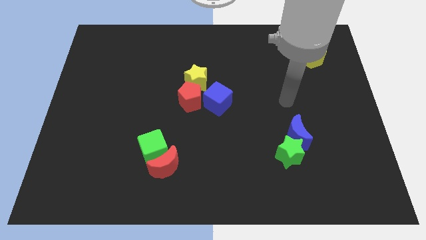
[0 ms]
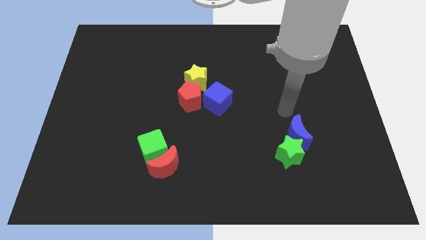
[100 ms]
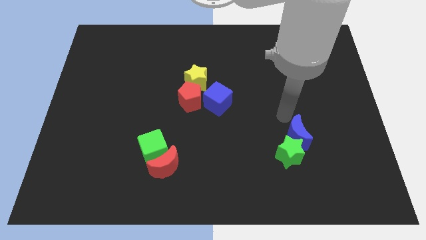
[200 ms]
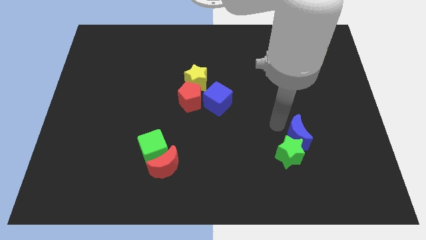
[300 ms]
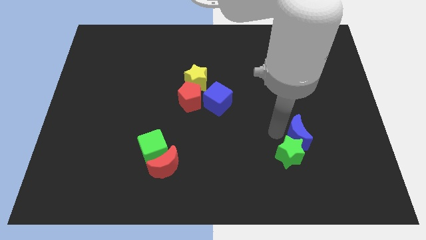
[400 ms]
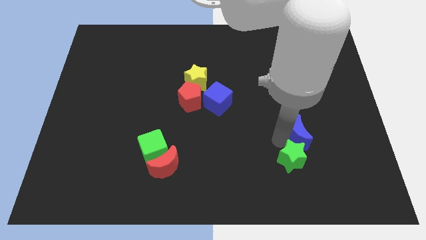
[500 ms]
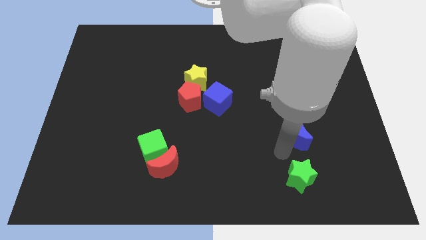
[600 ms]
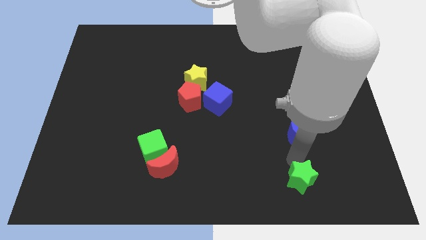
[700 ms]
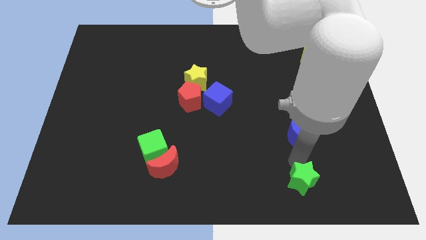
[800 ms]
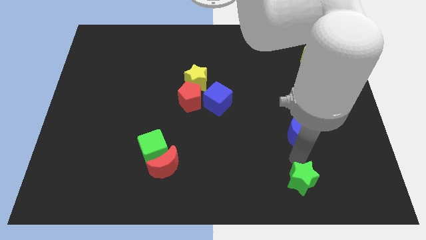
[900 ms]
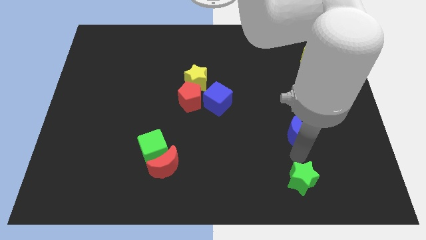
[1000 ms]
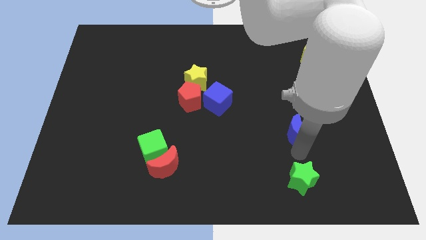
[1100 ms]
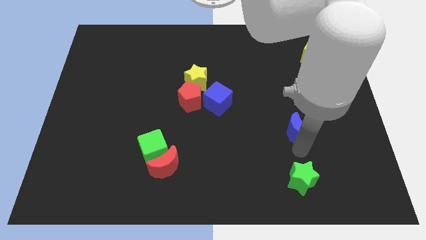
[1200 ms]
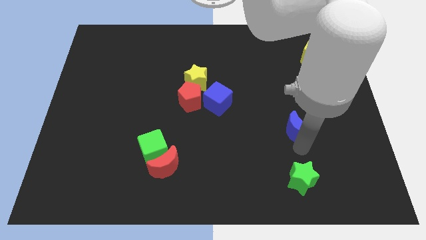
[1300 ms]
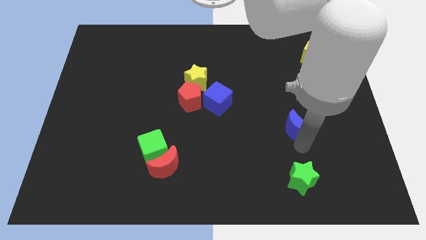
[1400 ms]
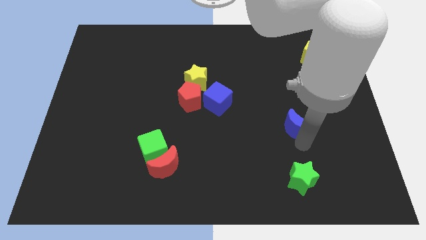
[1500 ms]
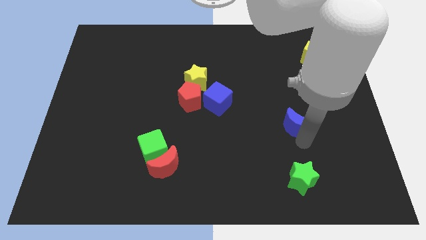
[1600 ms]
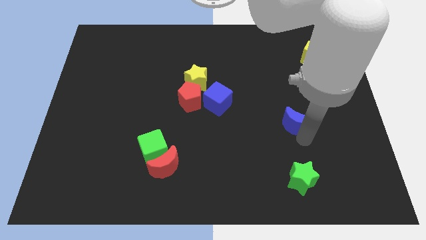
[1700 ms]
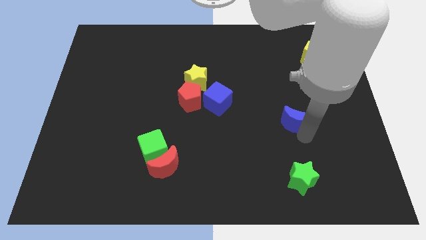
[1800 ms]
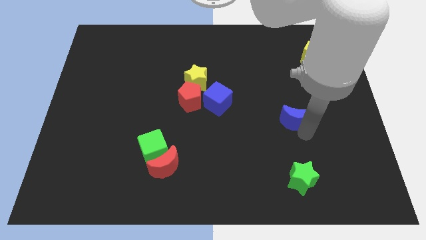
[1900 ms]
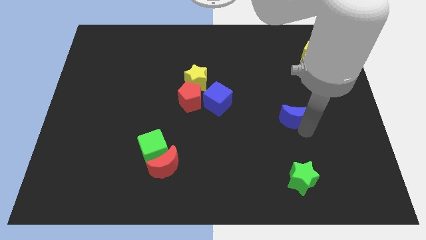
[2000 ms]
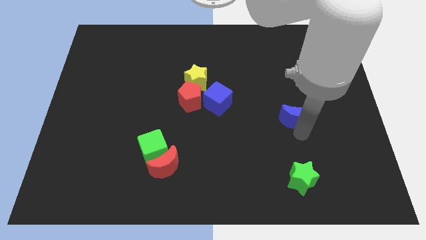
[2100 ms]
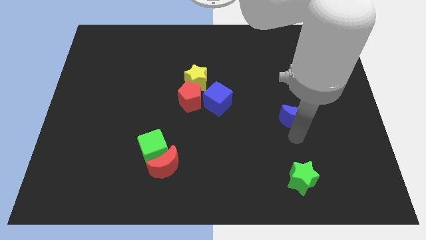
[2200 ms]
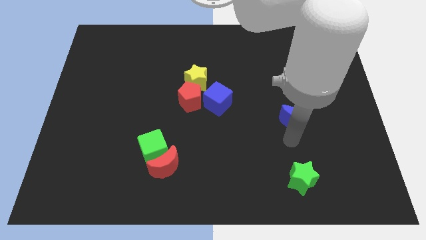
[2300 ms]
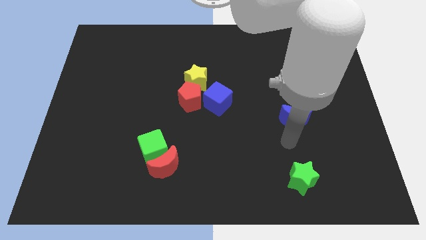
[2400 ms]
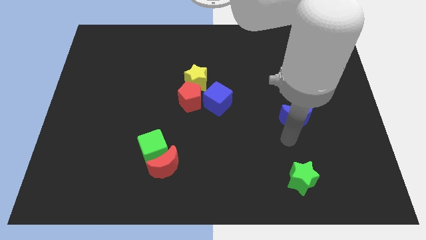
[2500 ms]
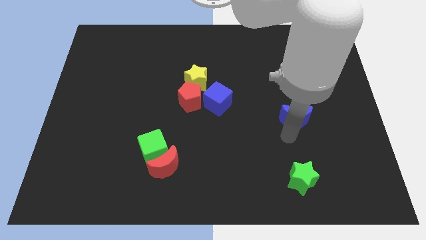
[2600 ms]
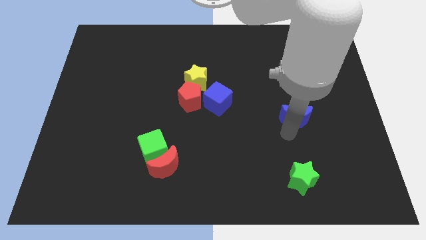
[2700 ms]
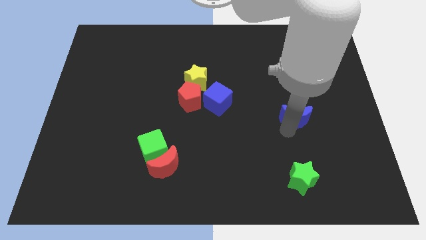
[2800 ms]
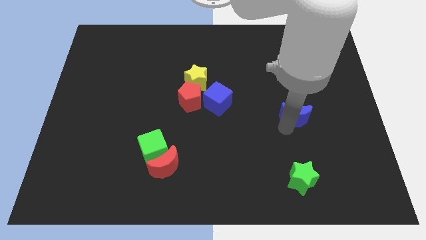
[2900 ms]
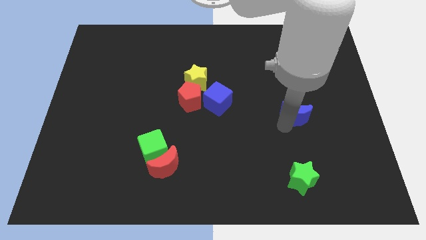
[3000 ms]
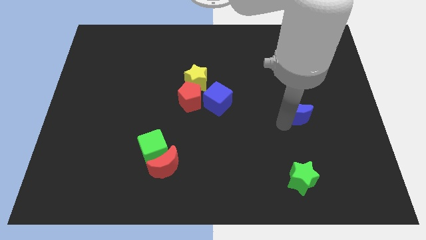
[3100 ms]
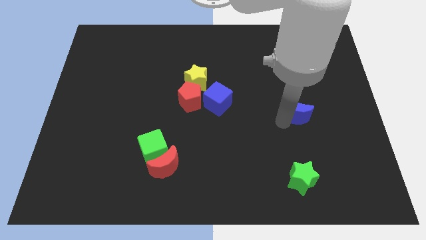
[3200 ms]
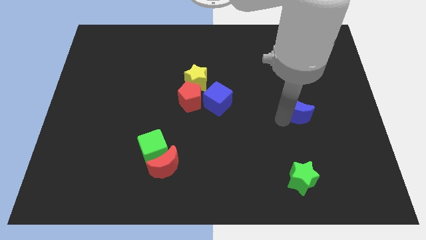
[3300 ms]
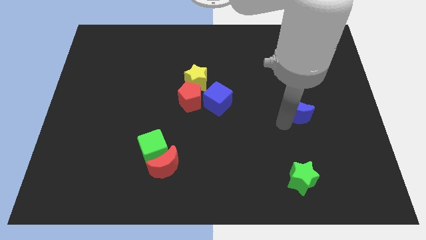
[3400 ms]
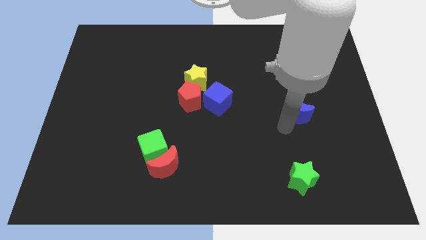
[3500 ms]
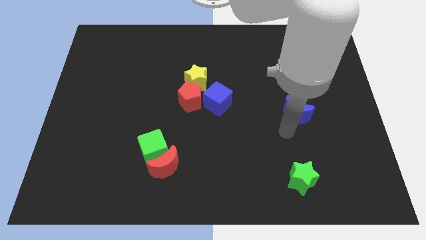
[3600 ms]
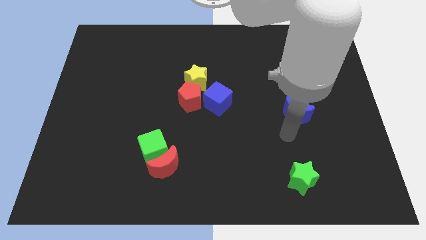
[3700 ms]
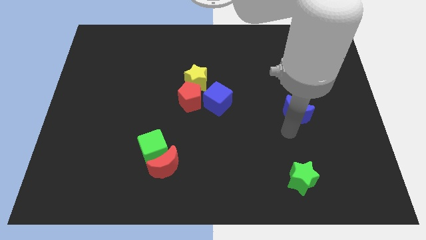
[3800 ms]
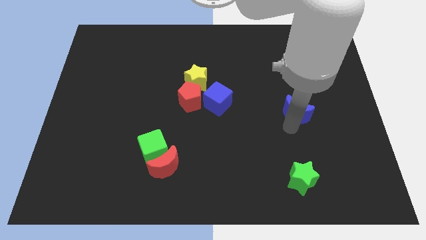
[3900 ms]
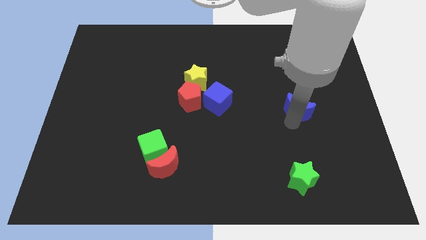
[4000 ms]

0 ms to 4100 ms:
slide the blue moon upwards a bit

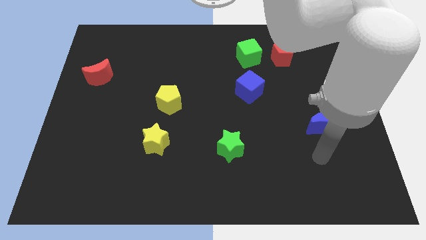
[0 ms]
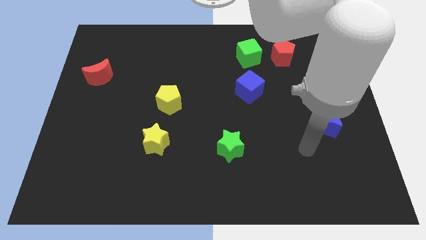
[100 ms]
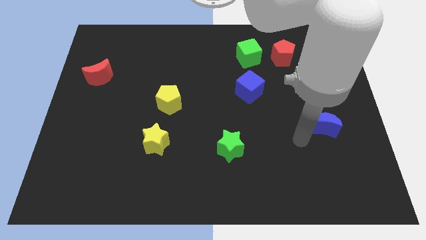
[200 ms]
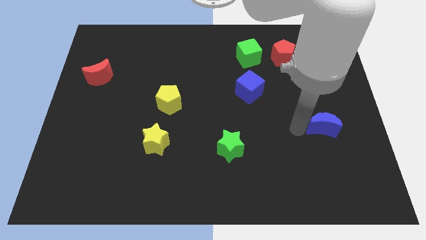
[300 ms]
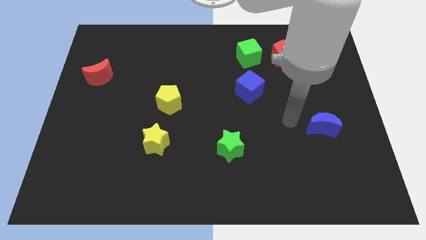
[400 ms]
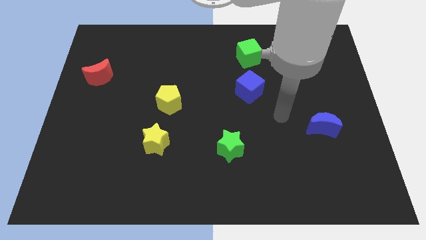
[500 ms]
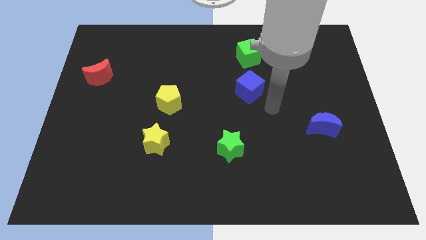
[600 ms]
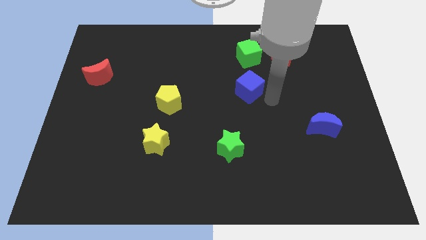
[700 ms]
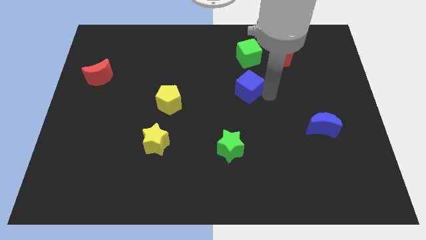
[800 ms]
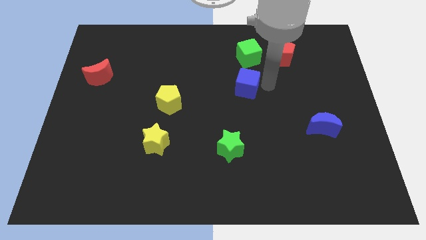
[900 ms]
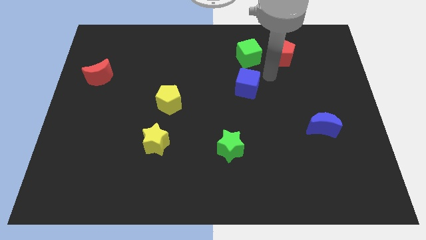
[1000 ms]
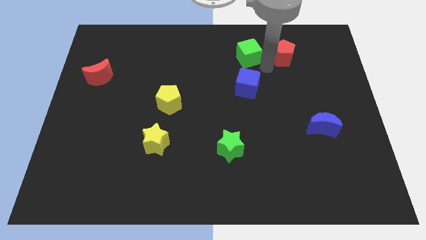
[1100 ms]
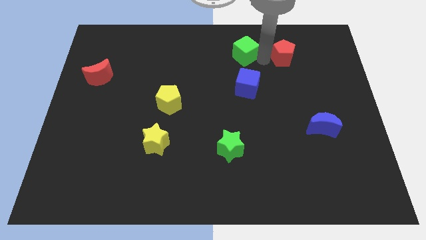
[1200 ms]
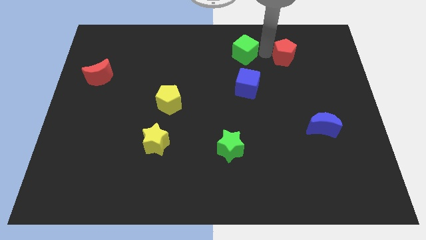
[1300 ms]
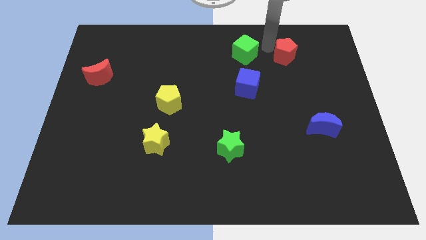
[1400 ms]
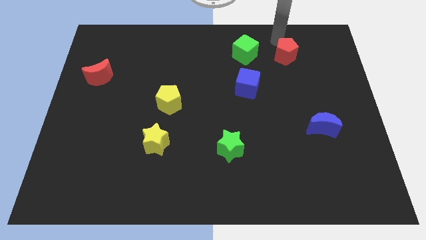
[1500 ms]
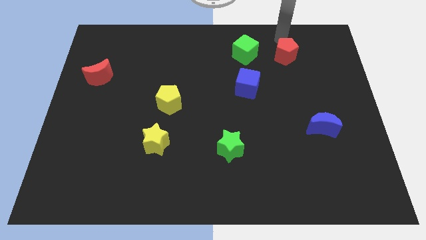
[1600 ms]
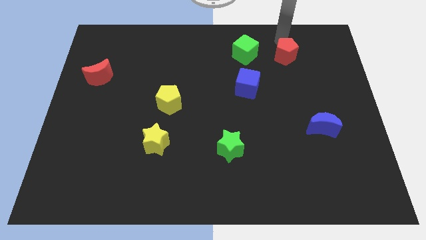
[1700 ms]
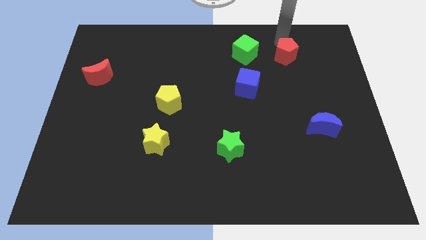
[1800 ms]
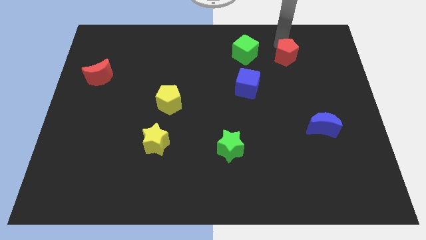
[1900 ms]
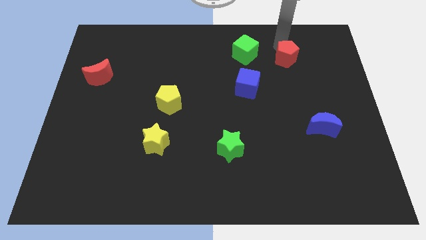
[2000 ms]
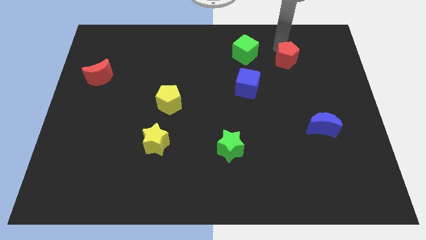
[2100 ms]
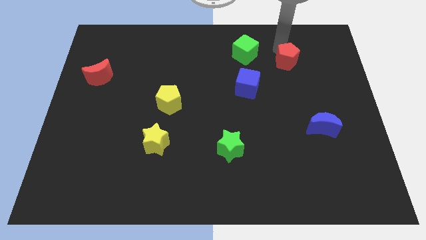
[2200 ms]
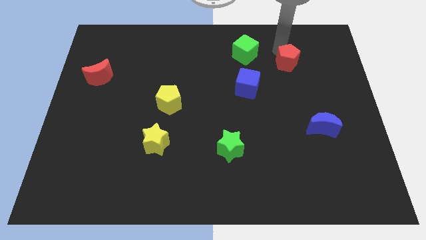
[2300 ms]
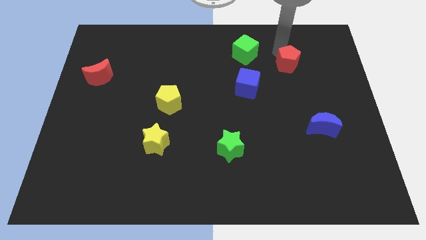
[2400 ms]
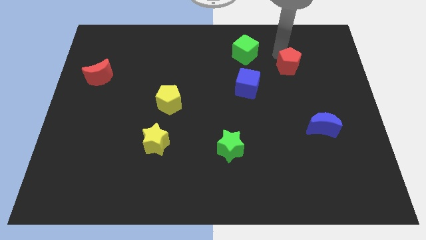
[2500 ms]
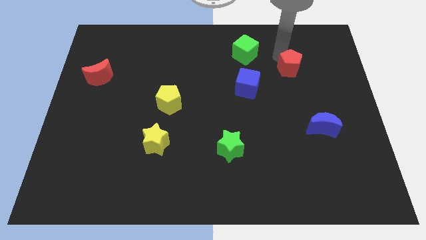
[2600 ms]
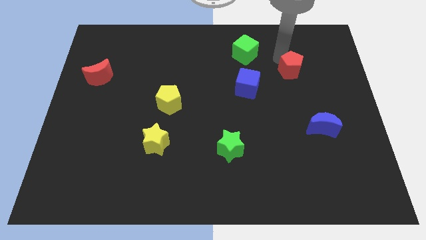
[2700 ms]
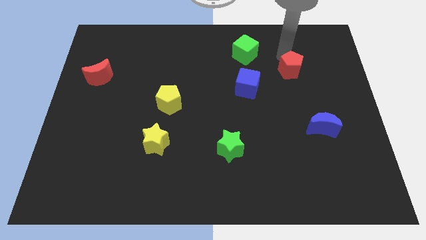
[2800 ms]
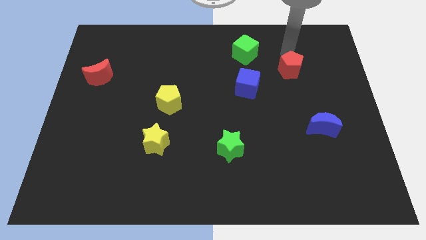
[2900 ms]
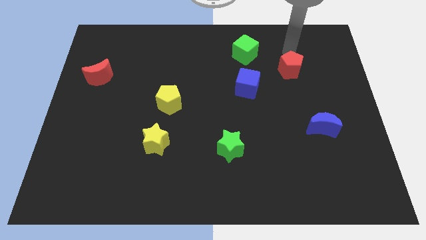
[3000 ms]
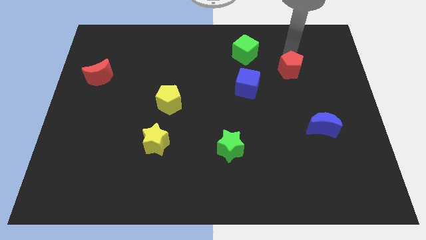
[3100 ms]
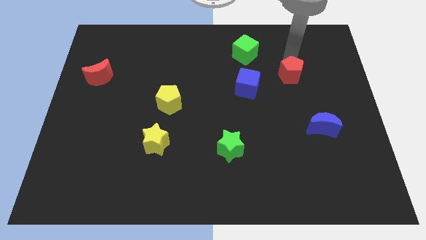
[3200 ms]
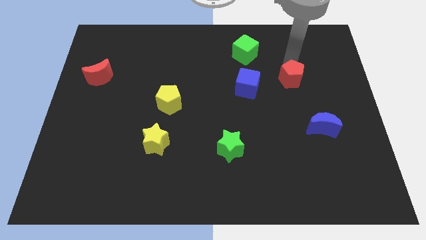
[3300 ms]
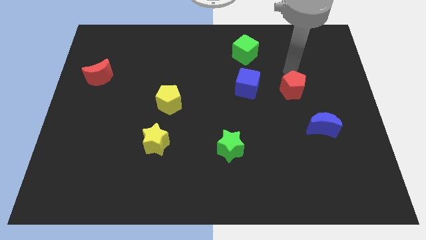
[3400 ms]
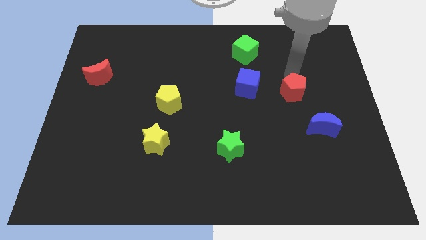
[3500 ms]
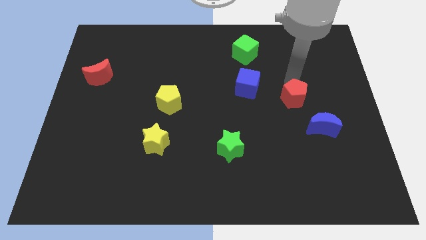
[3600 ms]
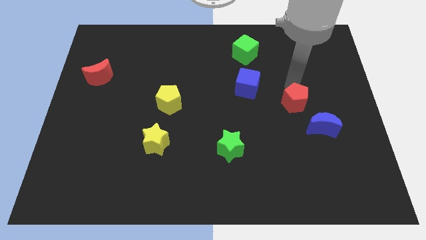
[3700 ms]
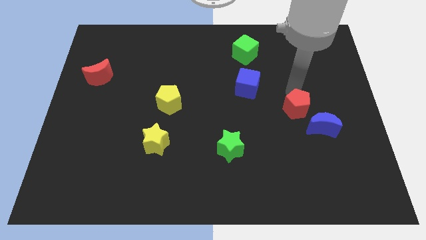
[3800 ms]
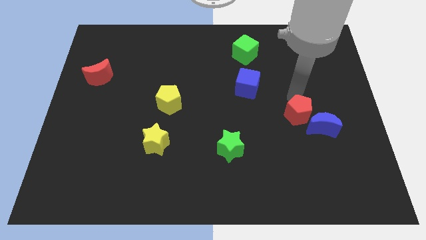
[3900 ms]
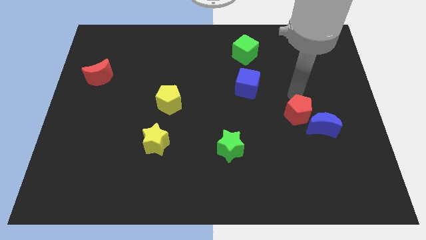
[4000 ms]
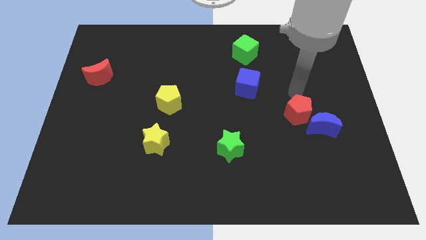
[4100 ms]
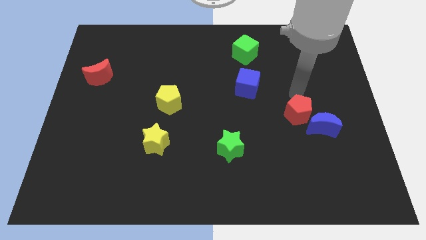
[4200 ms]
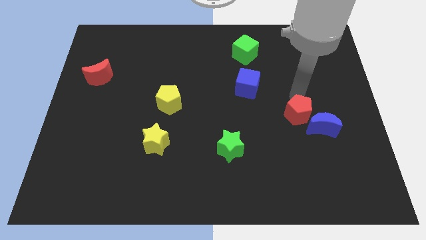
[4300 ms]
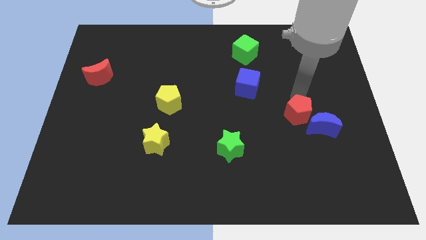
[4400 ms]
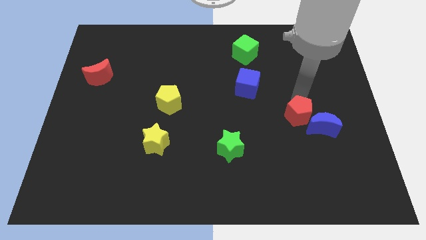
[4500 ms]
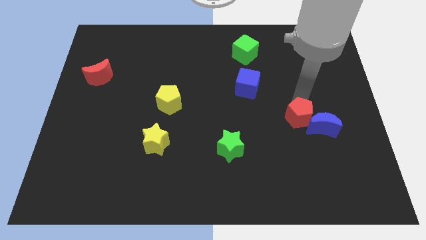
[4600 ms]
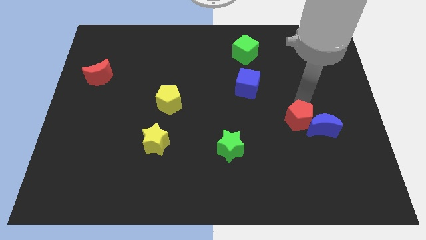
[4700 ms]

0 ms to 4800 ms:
slide the red pentagon down
